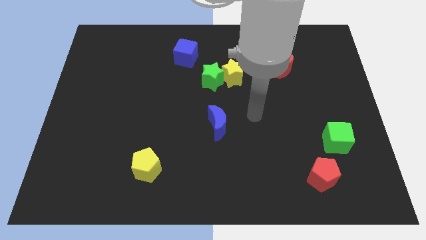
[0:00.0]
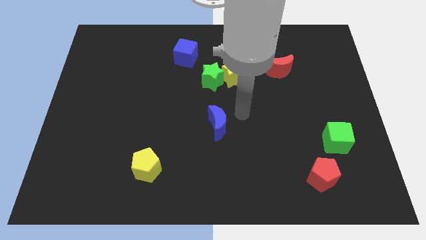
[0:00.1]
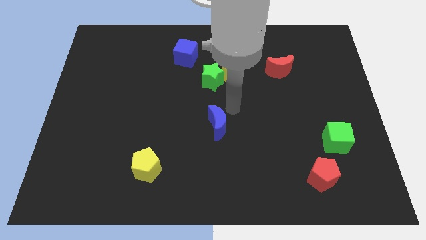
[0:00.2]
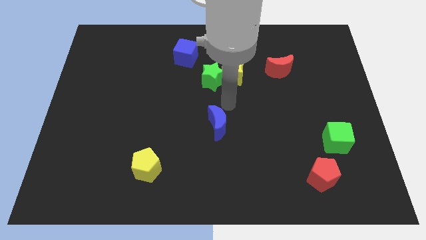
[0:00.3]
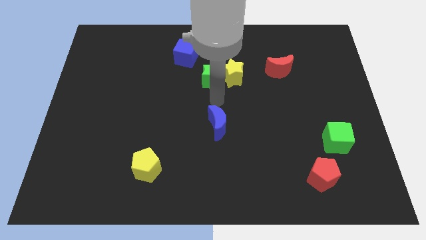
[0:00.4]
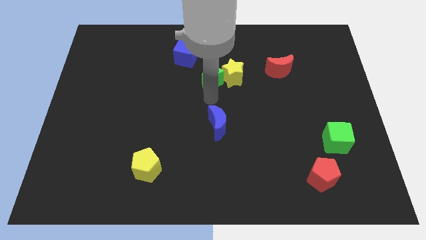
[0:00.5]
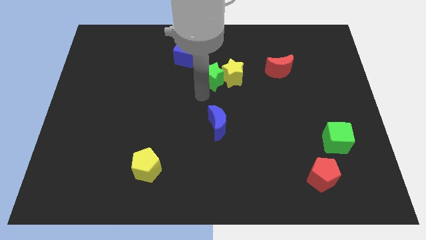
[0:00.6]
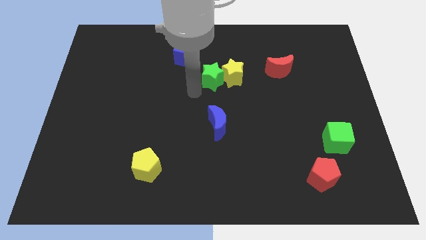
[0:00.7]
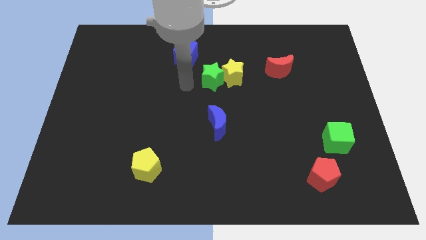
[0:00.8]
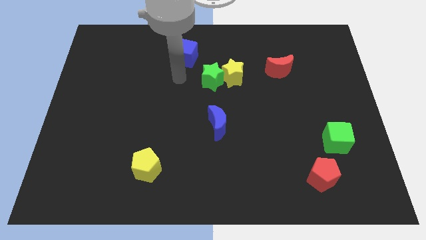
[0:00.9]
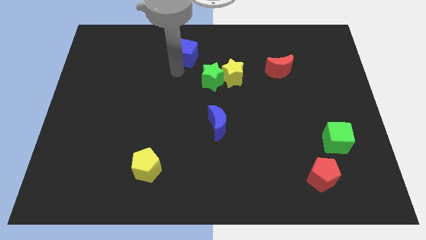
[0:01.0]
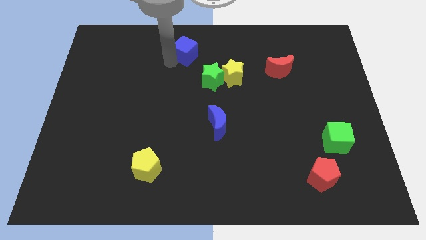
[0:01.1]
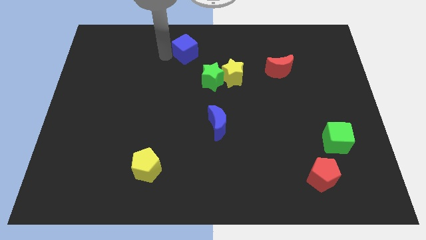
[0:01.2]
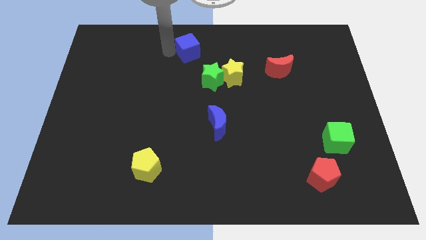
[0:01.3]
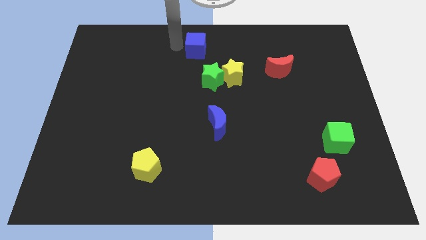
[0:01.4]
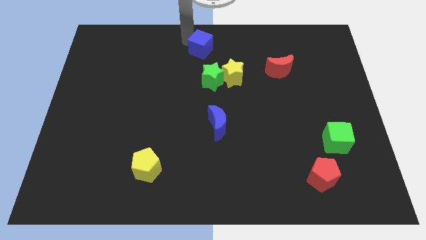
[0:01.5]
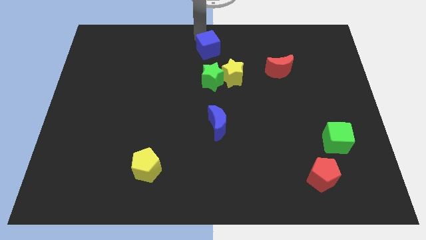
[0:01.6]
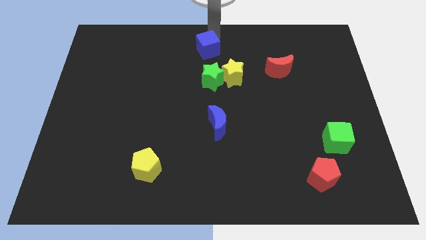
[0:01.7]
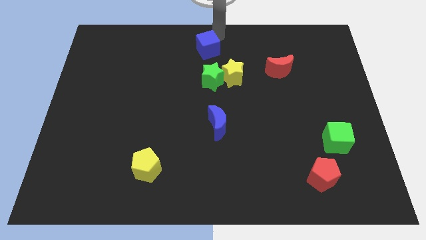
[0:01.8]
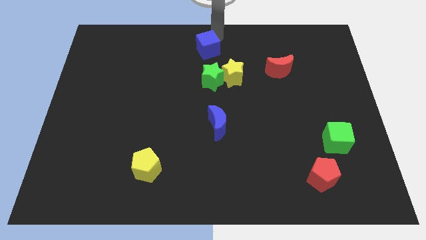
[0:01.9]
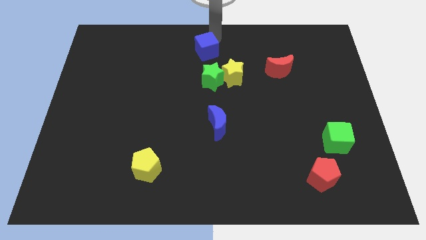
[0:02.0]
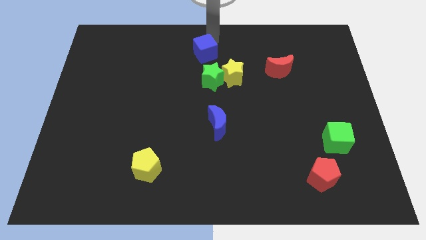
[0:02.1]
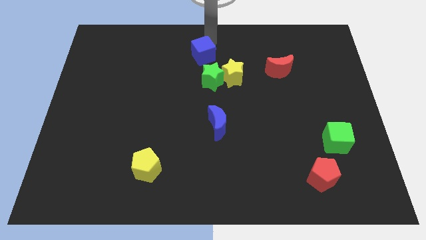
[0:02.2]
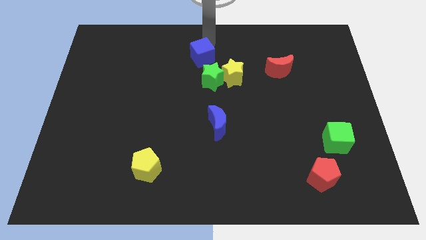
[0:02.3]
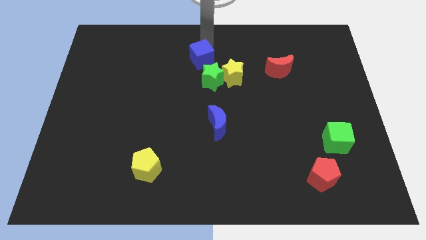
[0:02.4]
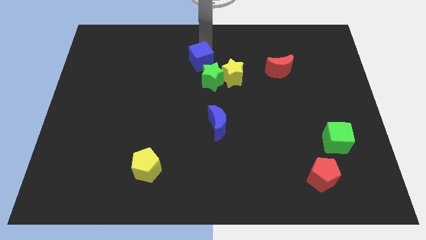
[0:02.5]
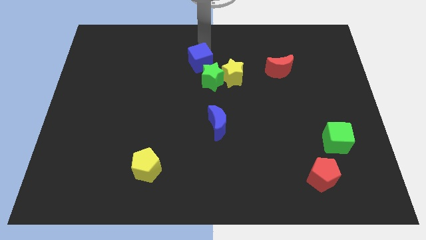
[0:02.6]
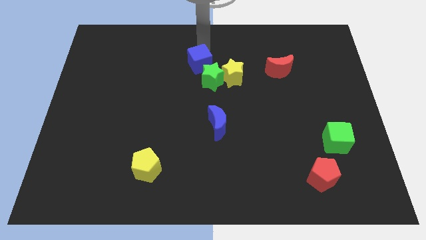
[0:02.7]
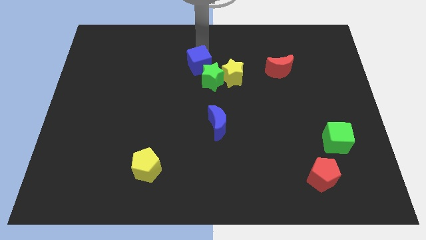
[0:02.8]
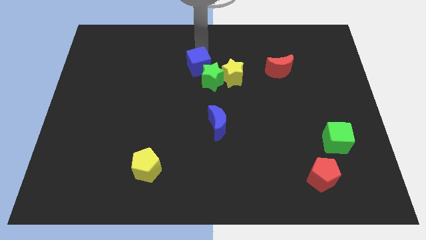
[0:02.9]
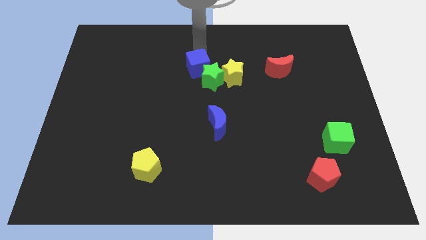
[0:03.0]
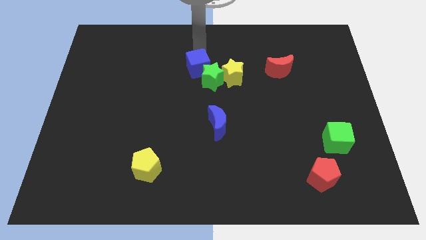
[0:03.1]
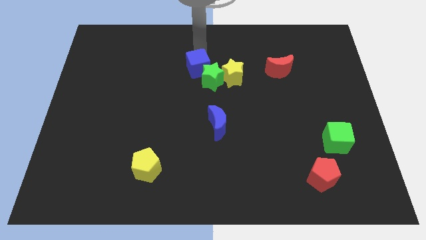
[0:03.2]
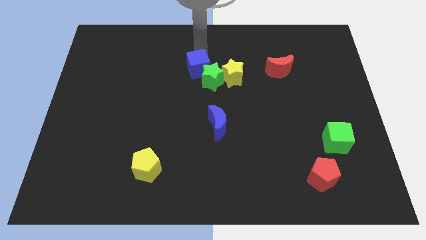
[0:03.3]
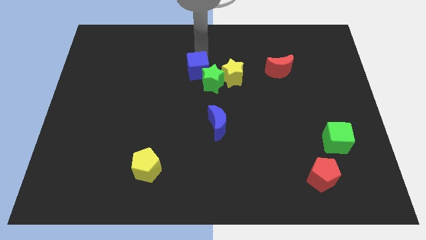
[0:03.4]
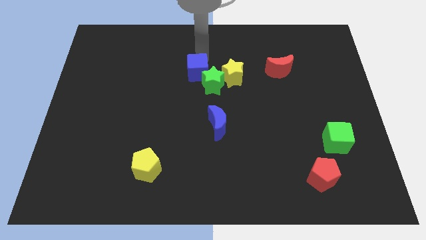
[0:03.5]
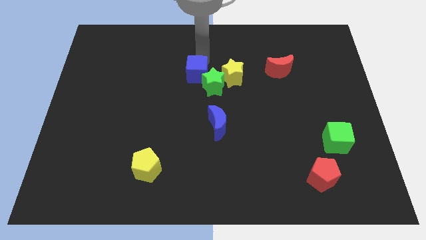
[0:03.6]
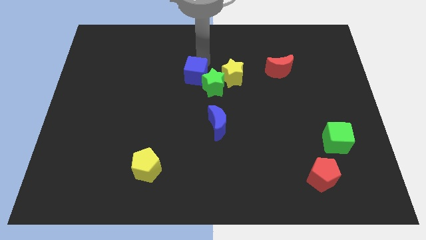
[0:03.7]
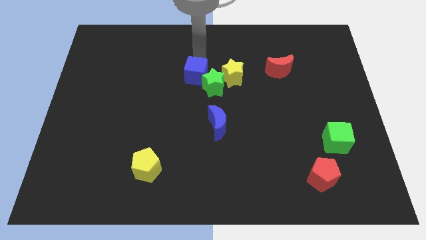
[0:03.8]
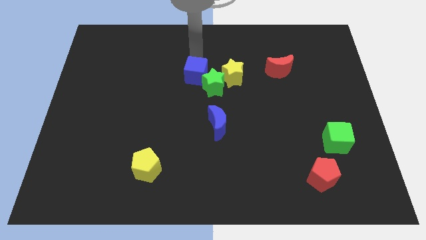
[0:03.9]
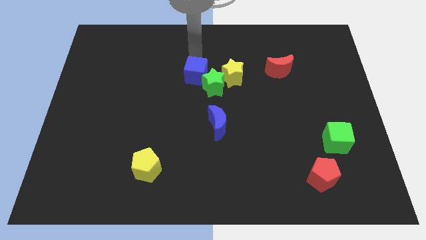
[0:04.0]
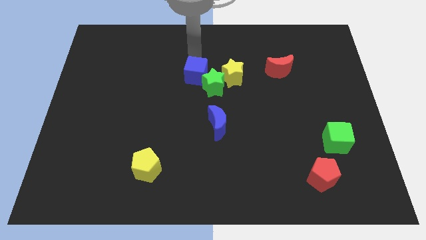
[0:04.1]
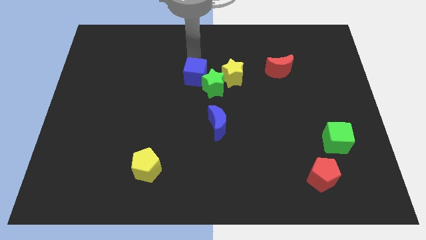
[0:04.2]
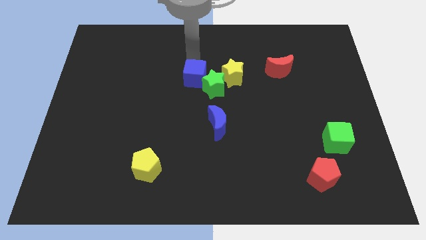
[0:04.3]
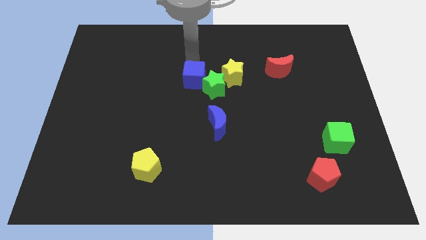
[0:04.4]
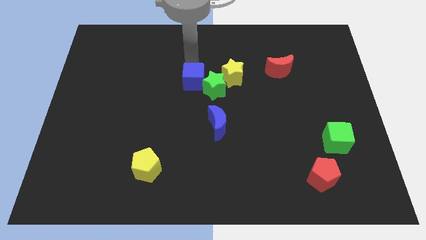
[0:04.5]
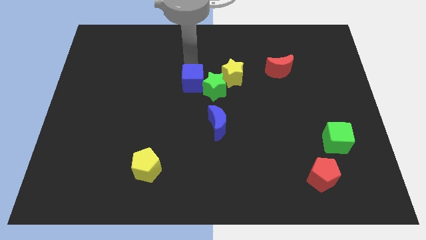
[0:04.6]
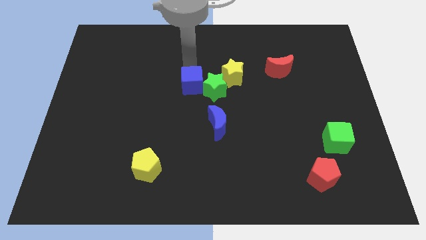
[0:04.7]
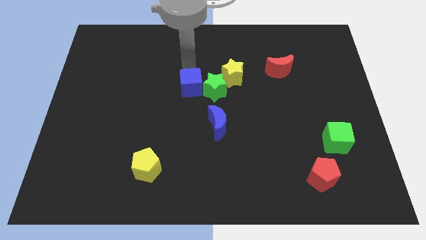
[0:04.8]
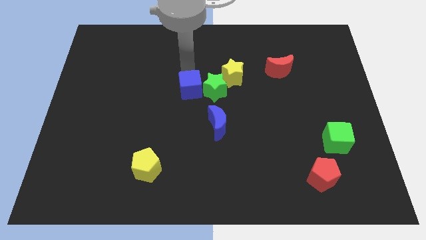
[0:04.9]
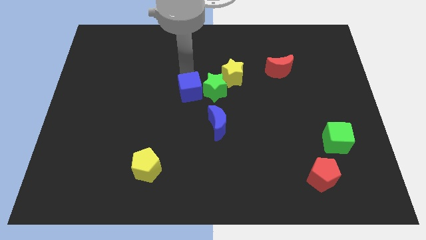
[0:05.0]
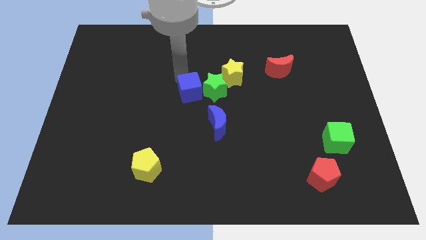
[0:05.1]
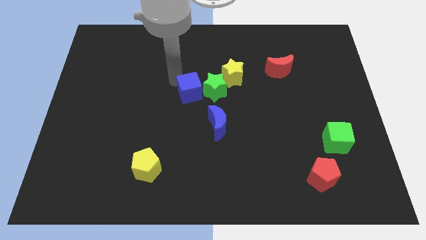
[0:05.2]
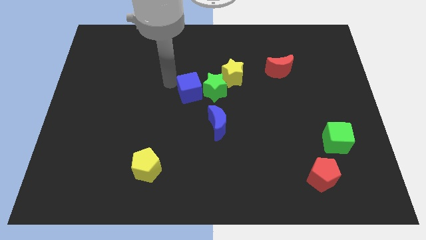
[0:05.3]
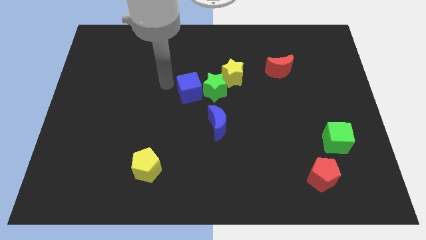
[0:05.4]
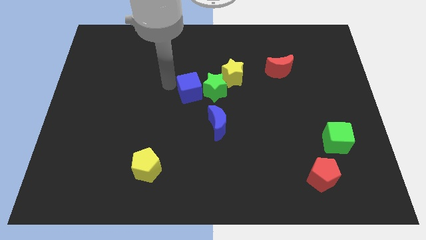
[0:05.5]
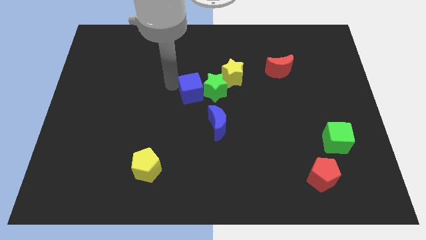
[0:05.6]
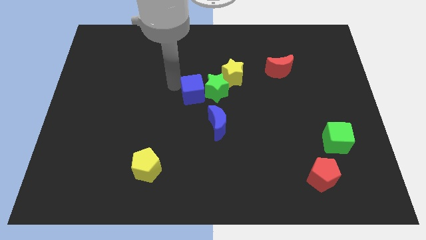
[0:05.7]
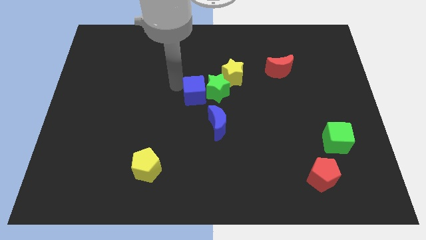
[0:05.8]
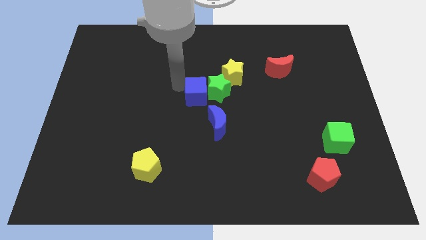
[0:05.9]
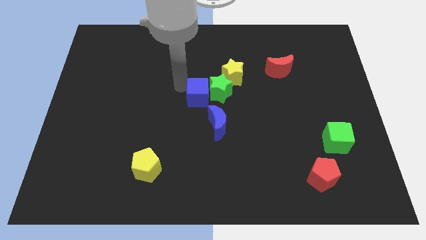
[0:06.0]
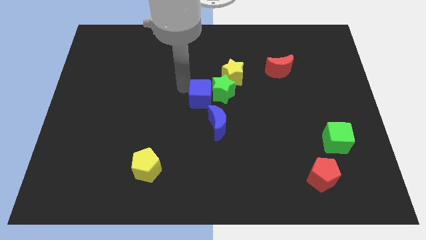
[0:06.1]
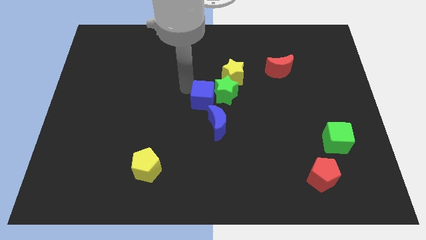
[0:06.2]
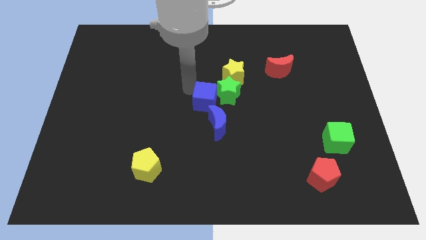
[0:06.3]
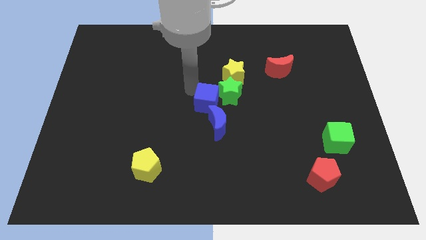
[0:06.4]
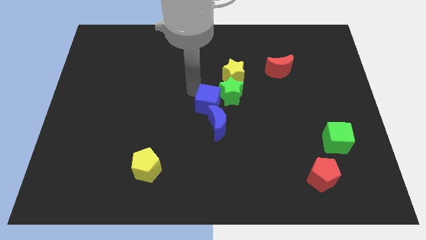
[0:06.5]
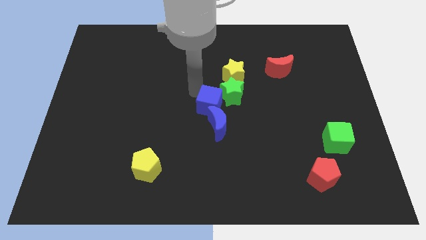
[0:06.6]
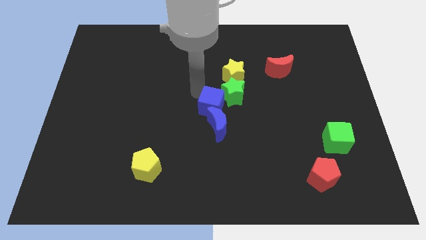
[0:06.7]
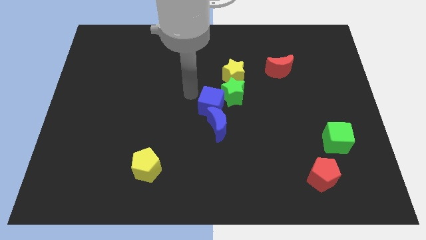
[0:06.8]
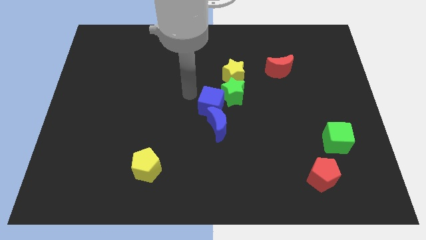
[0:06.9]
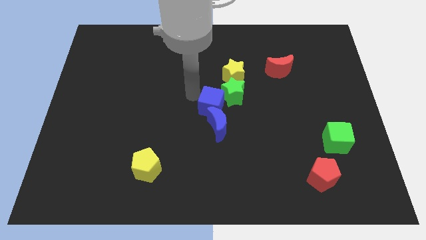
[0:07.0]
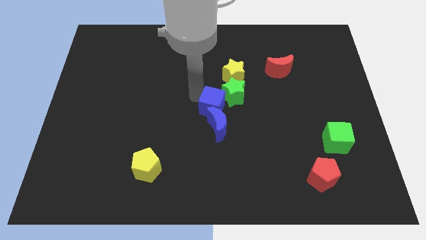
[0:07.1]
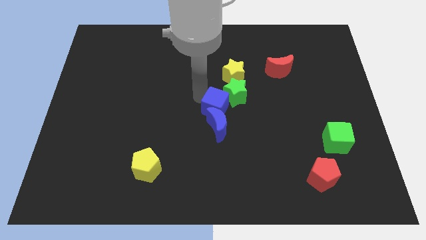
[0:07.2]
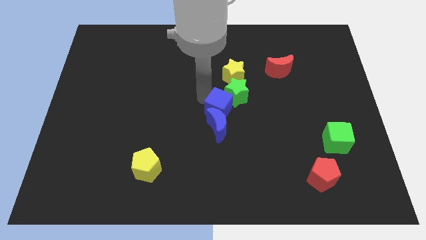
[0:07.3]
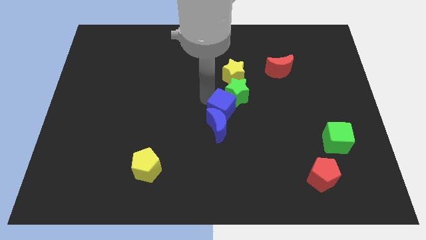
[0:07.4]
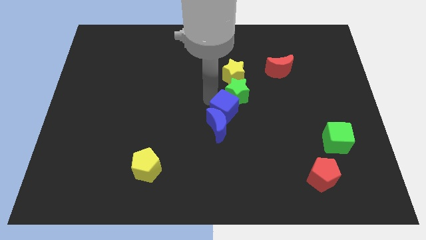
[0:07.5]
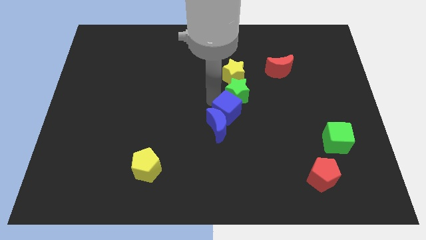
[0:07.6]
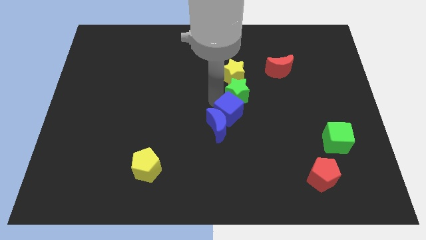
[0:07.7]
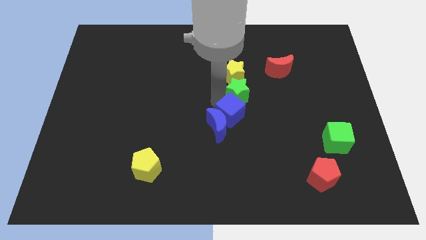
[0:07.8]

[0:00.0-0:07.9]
slide the blue cube down and then to the right
